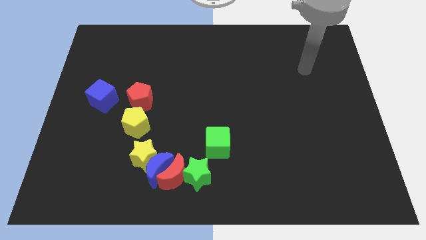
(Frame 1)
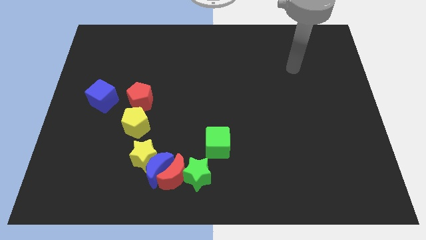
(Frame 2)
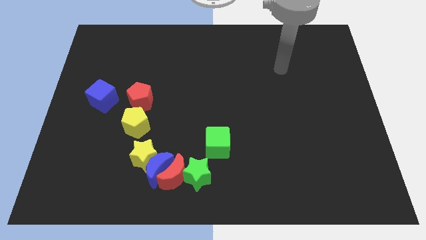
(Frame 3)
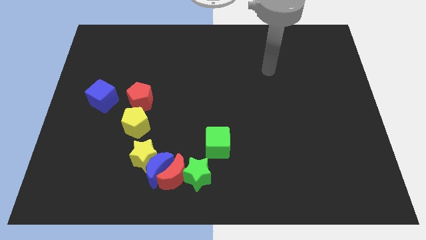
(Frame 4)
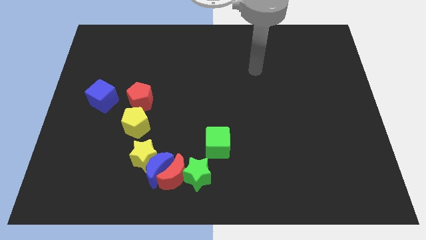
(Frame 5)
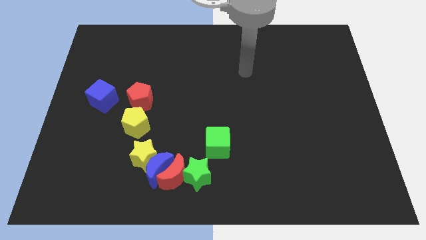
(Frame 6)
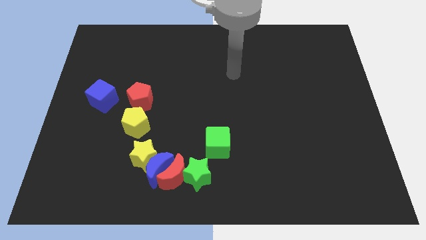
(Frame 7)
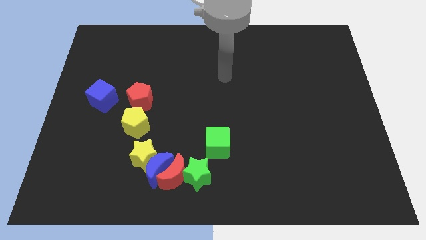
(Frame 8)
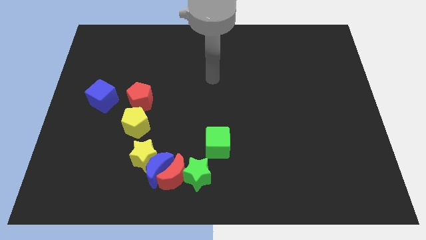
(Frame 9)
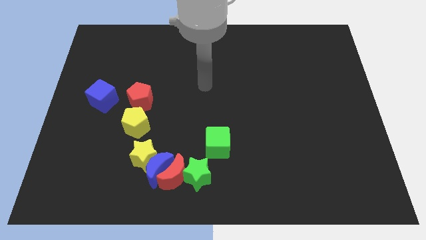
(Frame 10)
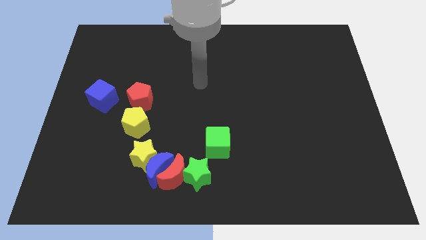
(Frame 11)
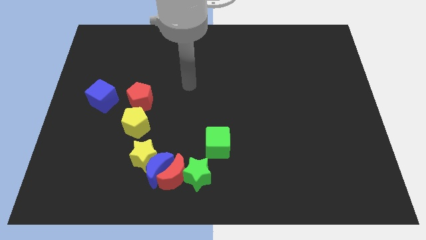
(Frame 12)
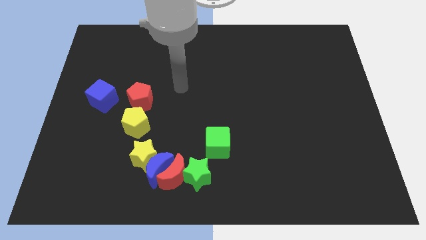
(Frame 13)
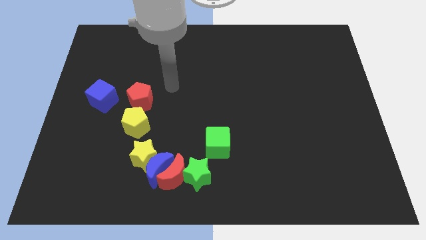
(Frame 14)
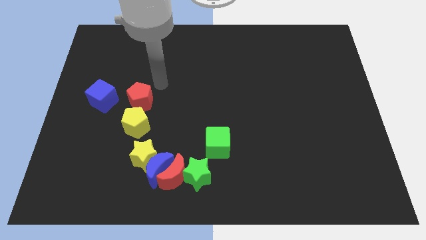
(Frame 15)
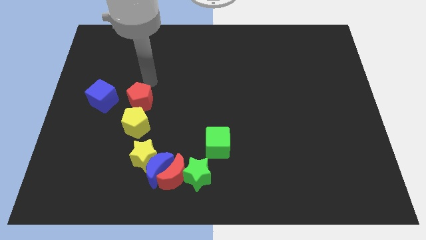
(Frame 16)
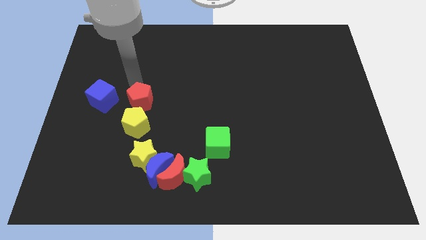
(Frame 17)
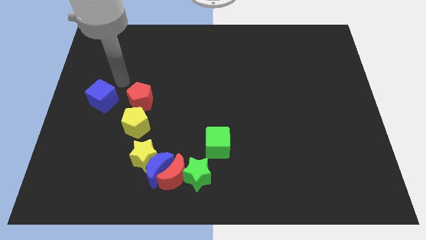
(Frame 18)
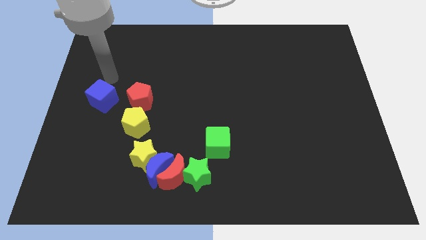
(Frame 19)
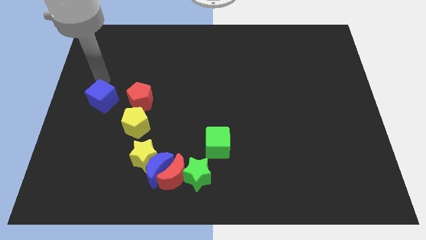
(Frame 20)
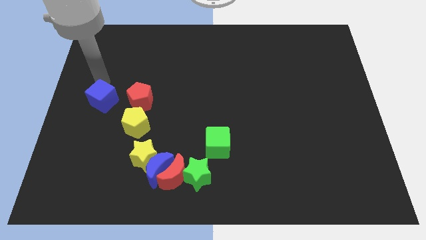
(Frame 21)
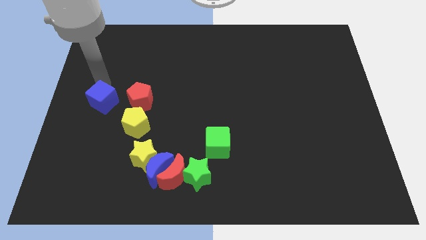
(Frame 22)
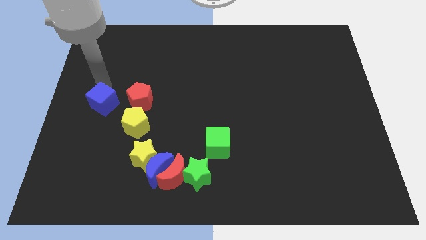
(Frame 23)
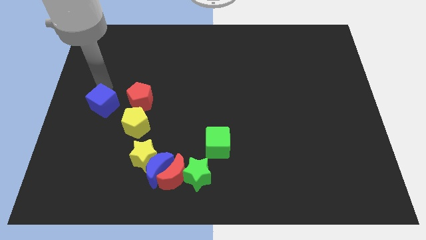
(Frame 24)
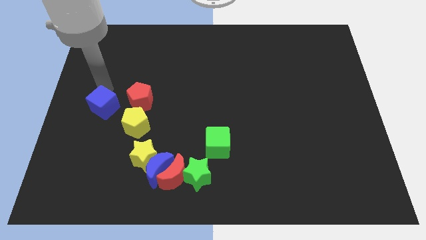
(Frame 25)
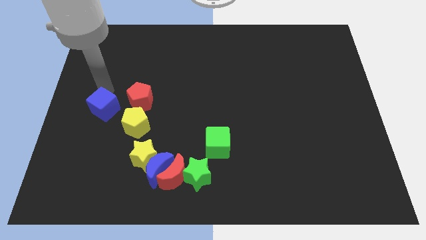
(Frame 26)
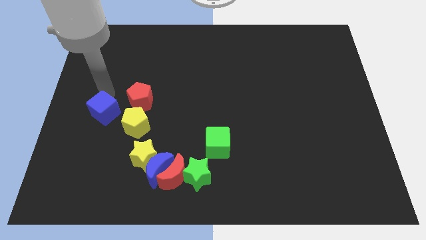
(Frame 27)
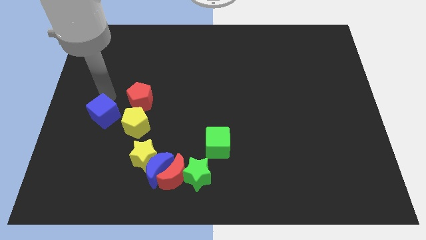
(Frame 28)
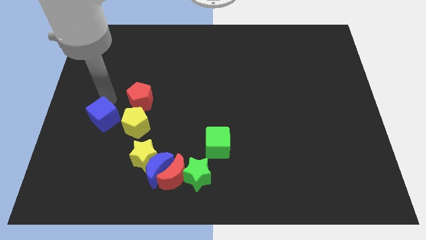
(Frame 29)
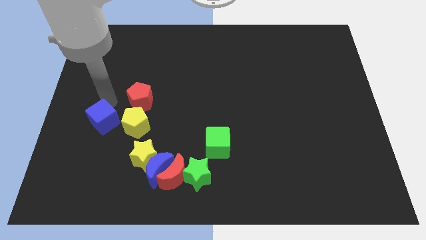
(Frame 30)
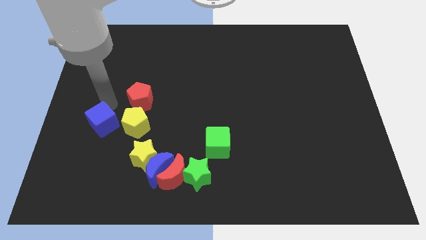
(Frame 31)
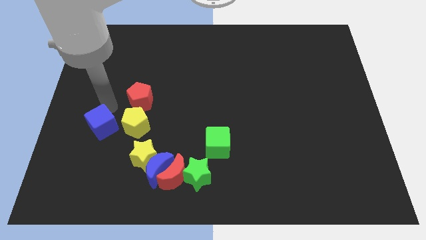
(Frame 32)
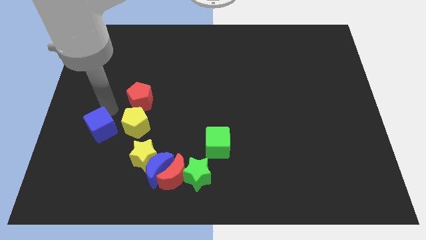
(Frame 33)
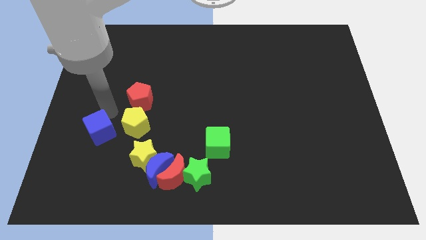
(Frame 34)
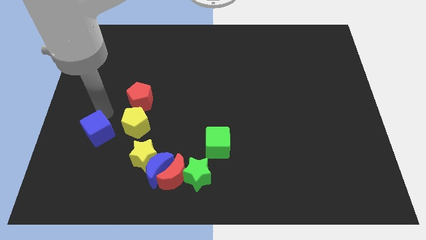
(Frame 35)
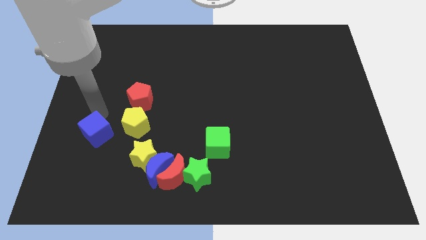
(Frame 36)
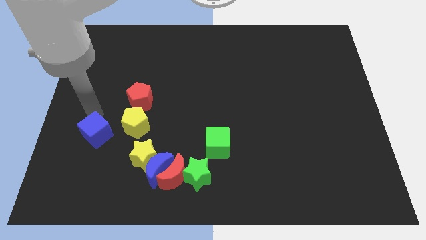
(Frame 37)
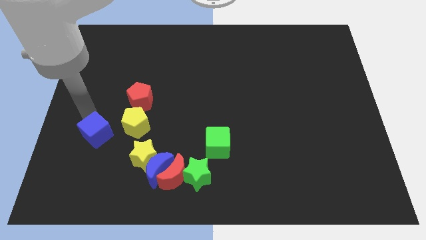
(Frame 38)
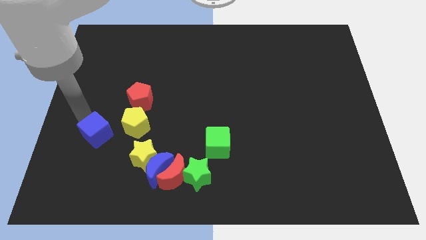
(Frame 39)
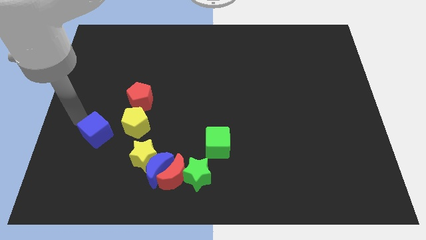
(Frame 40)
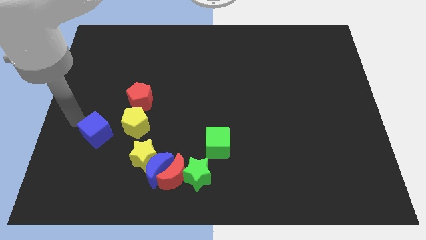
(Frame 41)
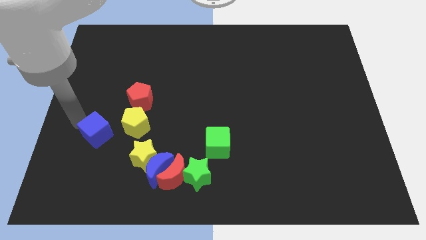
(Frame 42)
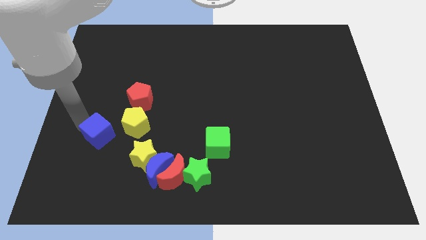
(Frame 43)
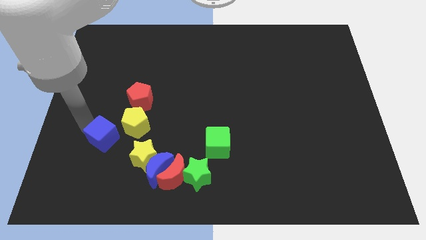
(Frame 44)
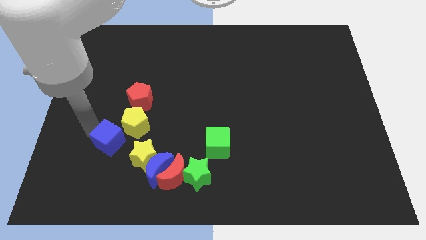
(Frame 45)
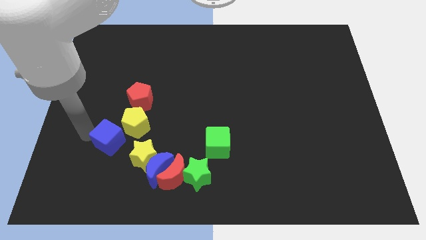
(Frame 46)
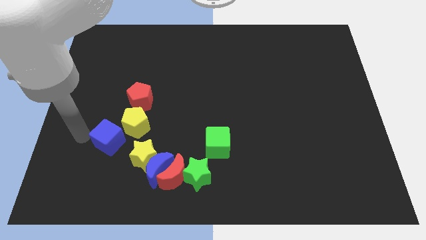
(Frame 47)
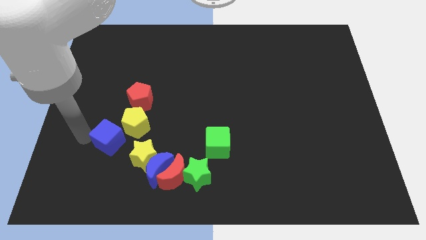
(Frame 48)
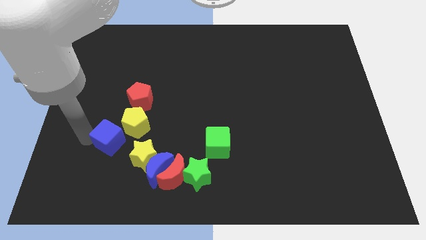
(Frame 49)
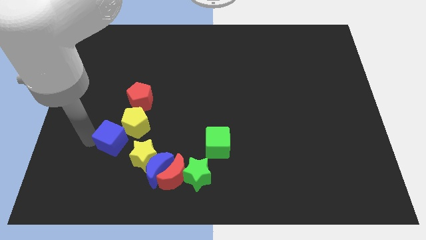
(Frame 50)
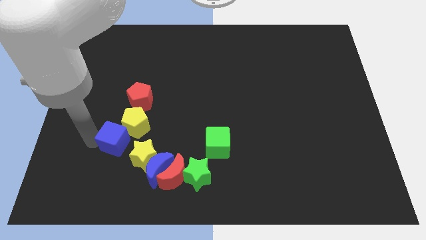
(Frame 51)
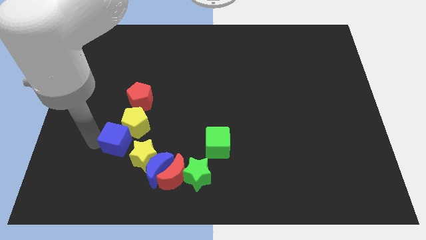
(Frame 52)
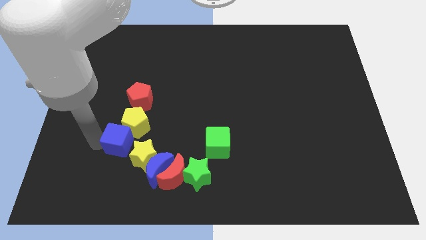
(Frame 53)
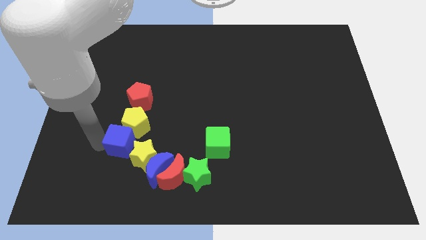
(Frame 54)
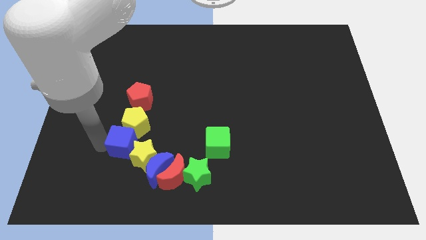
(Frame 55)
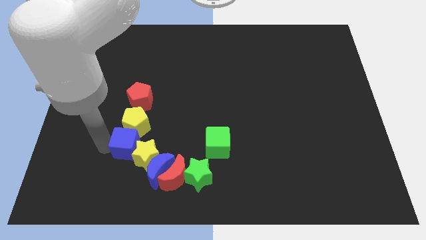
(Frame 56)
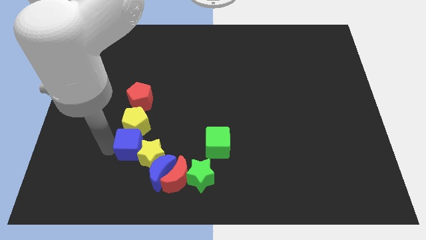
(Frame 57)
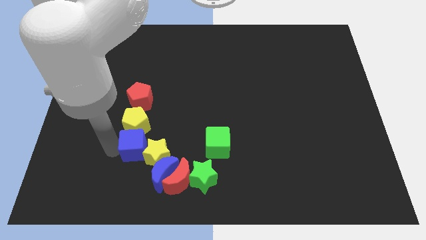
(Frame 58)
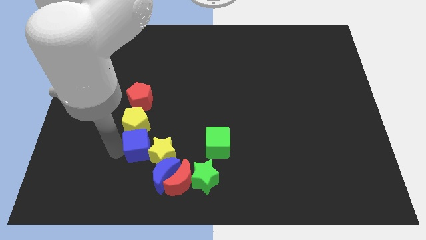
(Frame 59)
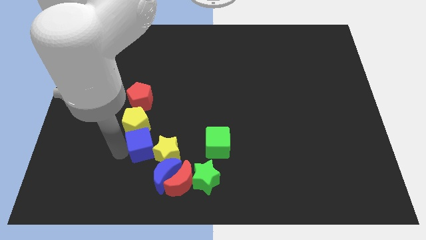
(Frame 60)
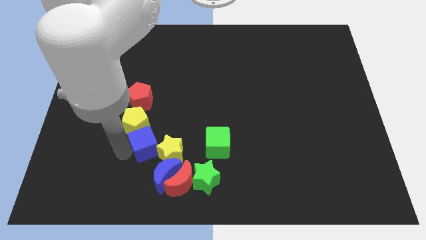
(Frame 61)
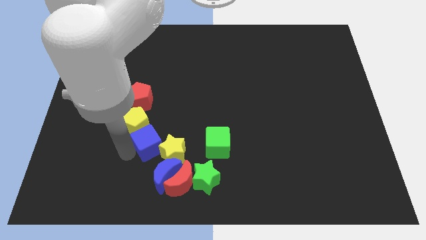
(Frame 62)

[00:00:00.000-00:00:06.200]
move the blue cube to the top of the blue moon

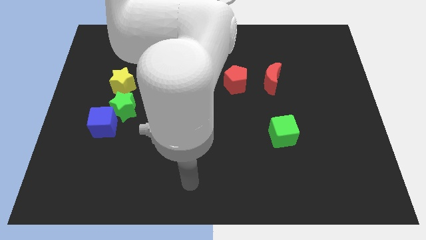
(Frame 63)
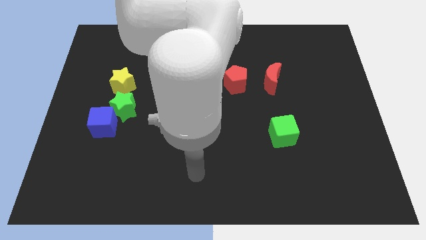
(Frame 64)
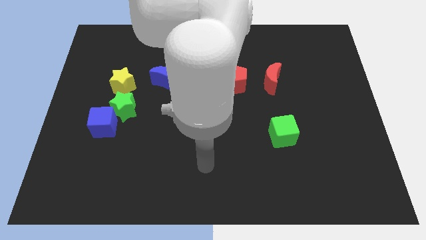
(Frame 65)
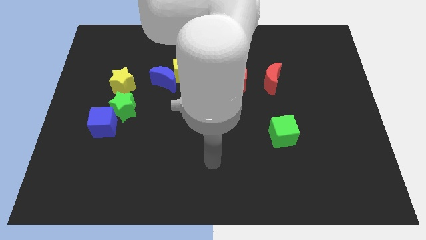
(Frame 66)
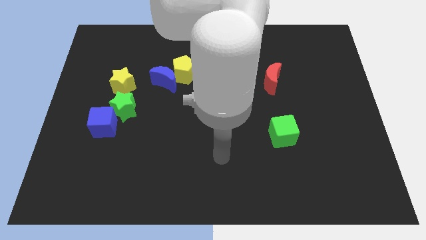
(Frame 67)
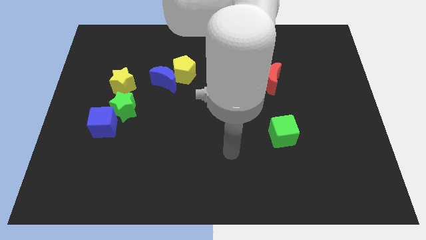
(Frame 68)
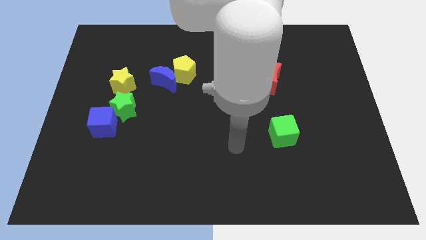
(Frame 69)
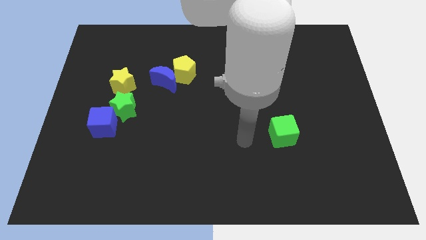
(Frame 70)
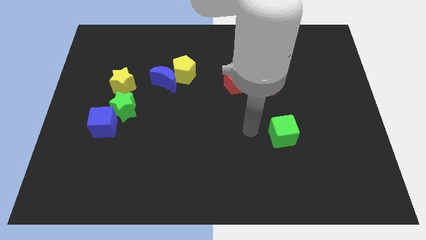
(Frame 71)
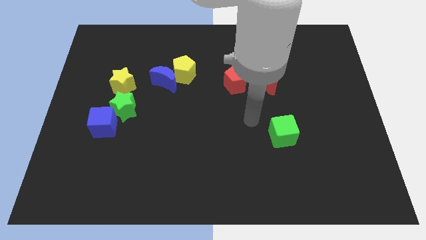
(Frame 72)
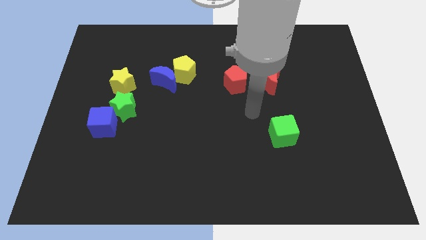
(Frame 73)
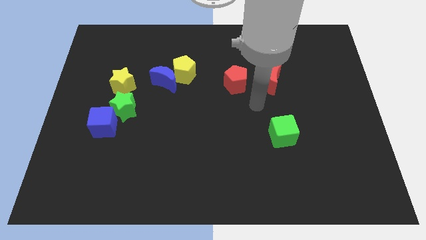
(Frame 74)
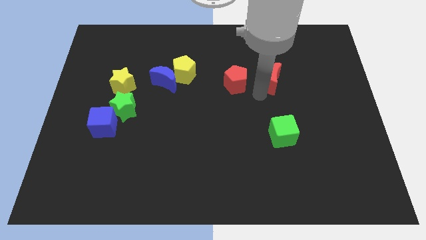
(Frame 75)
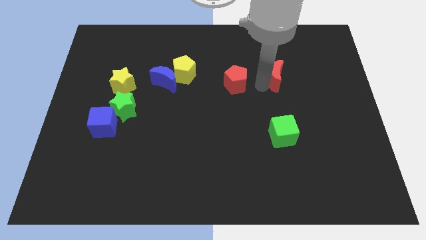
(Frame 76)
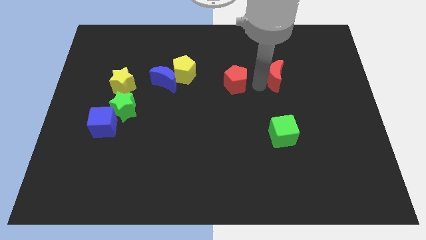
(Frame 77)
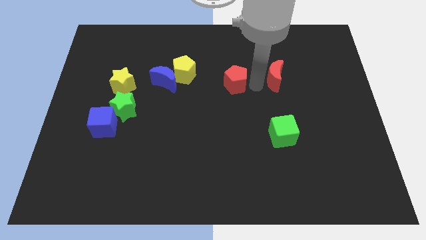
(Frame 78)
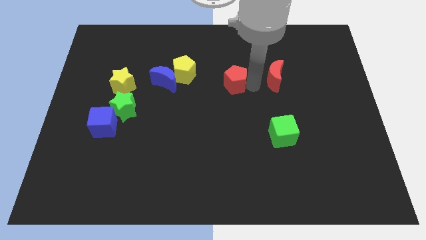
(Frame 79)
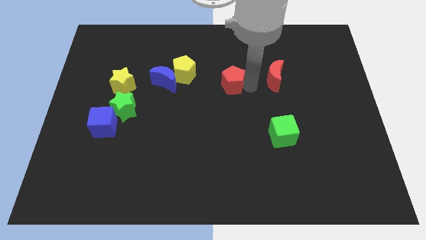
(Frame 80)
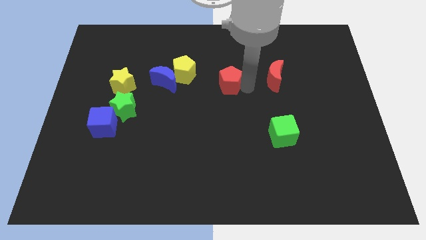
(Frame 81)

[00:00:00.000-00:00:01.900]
slide the red pentagon to the right of the blue moon
